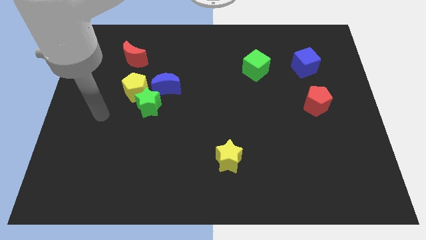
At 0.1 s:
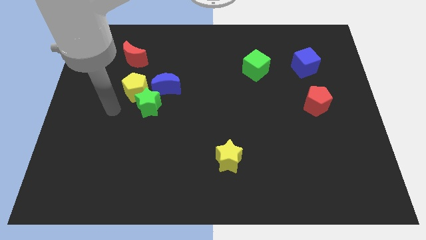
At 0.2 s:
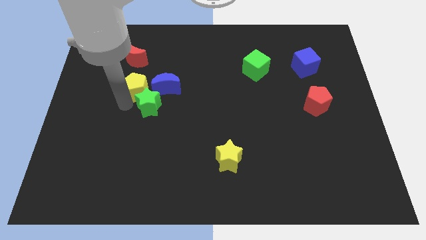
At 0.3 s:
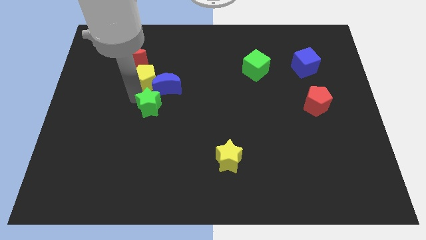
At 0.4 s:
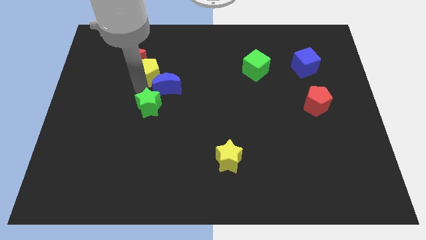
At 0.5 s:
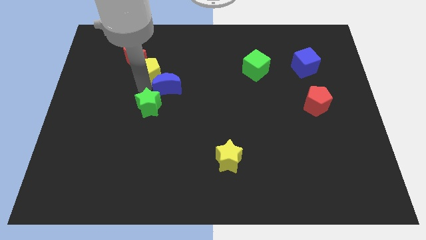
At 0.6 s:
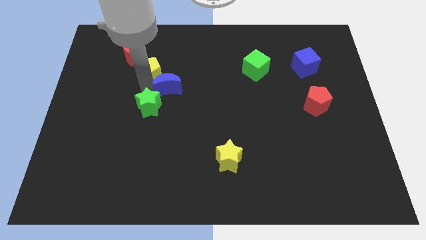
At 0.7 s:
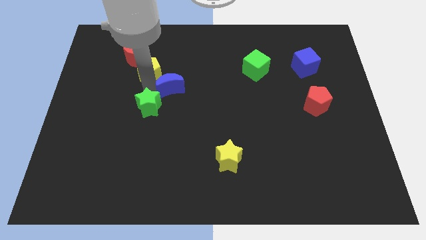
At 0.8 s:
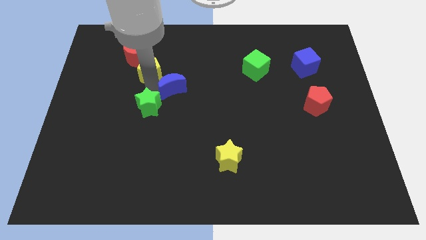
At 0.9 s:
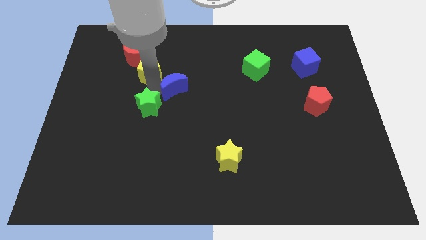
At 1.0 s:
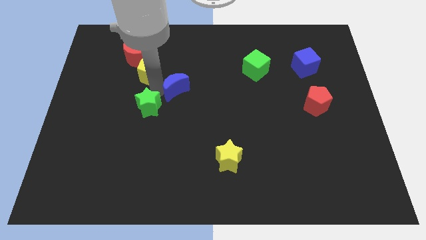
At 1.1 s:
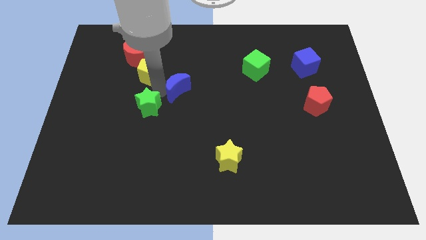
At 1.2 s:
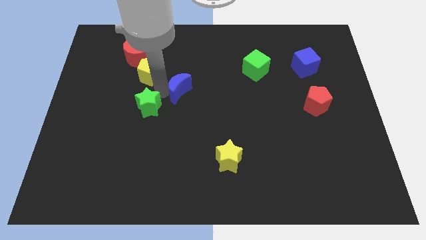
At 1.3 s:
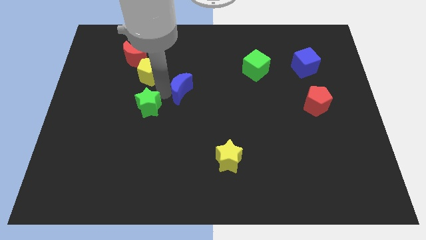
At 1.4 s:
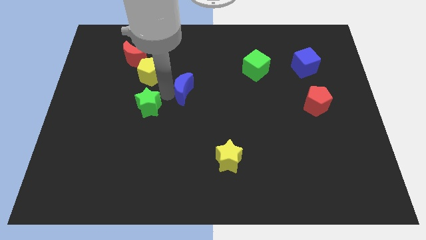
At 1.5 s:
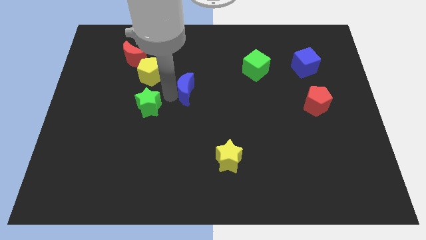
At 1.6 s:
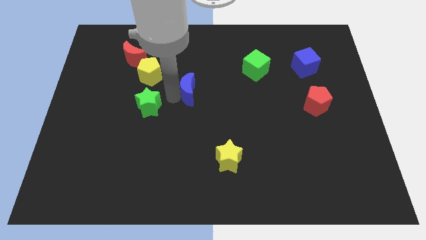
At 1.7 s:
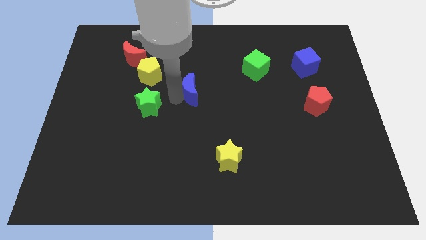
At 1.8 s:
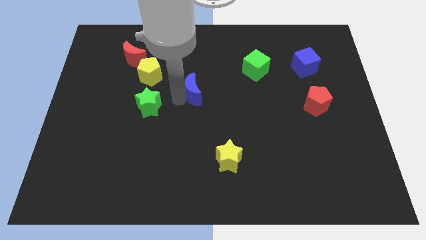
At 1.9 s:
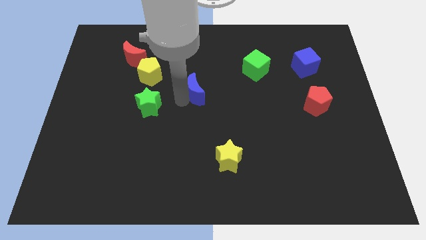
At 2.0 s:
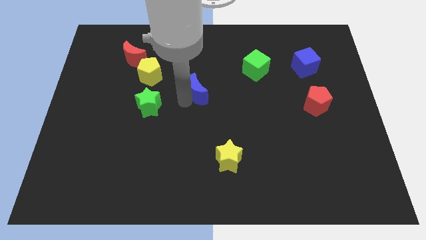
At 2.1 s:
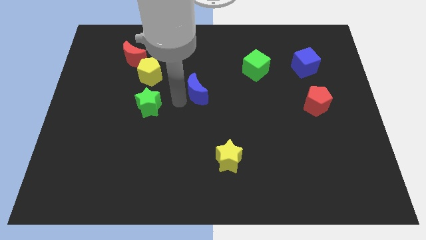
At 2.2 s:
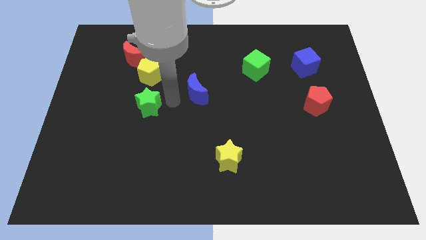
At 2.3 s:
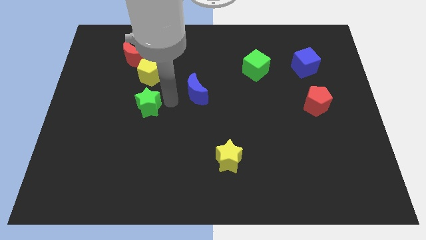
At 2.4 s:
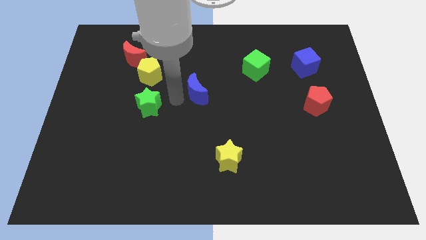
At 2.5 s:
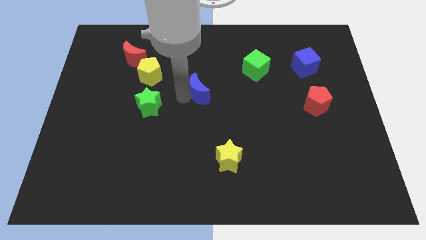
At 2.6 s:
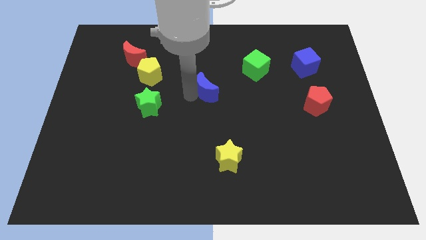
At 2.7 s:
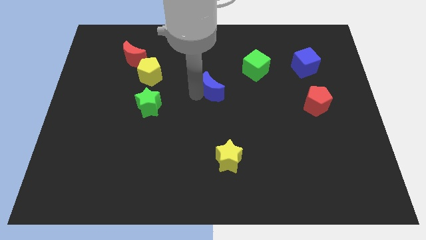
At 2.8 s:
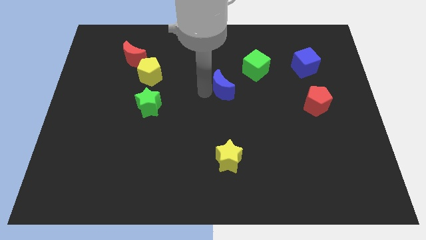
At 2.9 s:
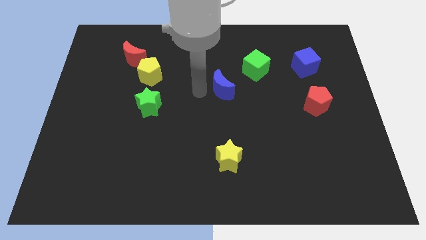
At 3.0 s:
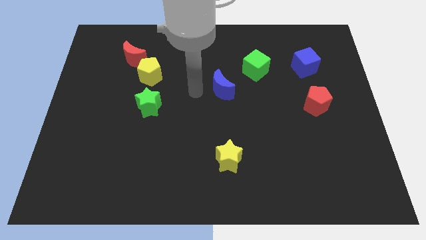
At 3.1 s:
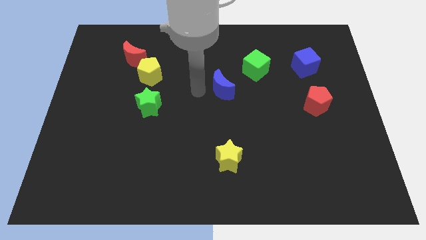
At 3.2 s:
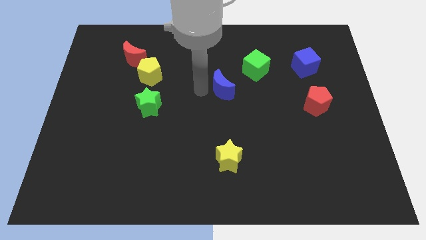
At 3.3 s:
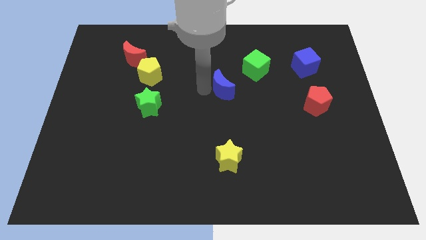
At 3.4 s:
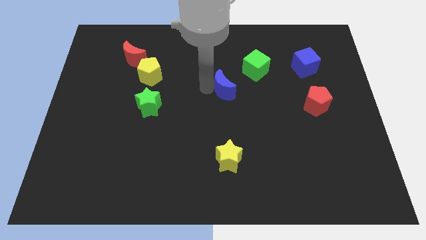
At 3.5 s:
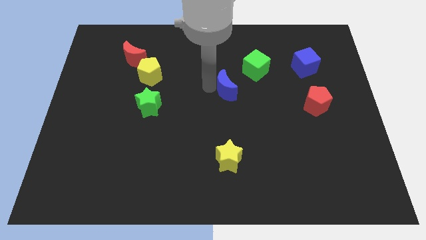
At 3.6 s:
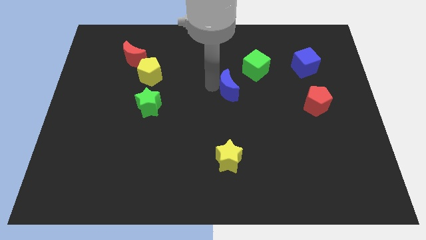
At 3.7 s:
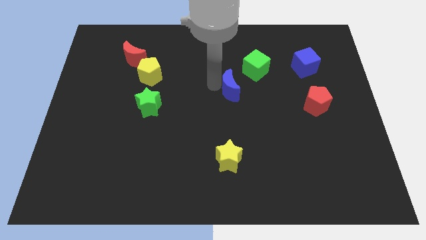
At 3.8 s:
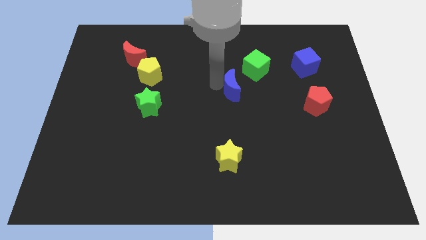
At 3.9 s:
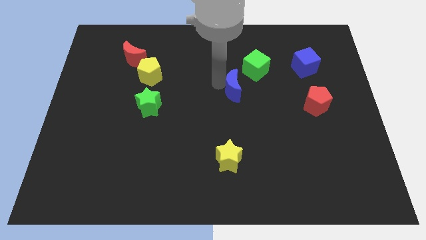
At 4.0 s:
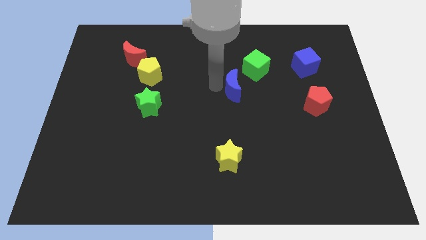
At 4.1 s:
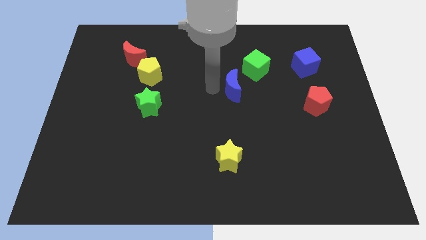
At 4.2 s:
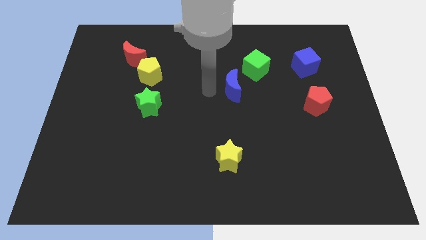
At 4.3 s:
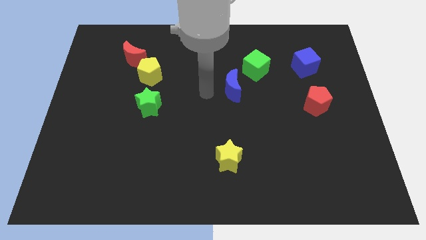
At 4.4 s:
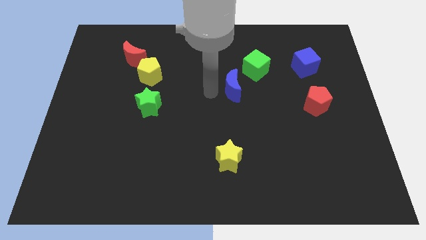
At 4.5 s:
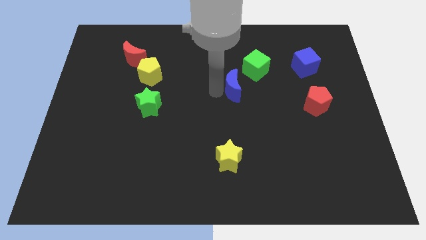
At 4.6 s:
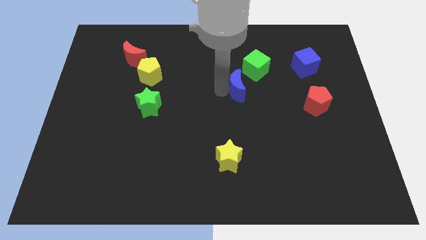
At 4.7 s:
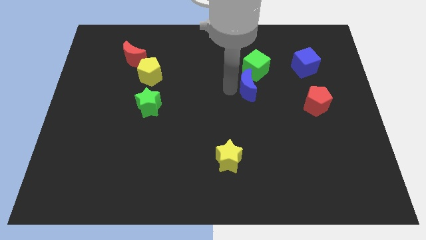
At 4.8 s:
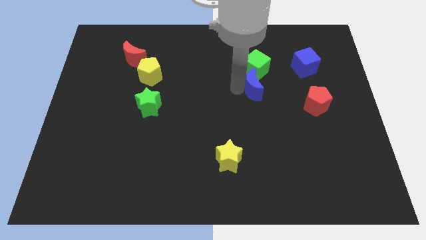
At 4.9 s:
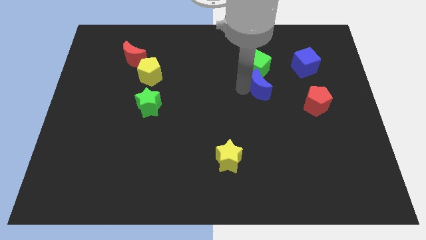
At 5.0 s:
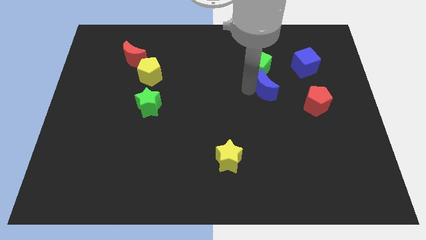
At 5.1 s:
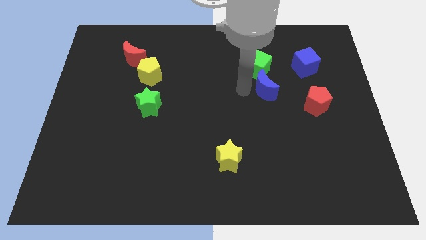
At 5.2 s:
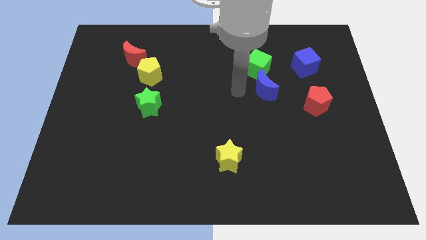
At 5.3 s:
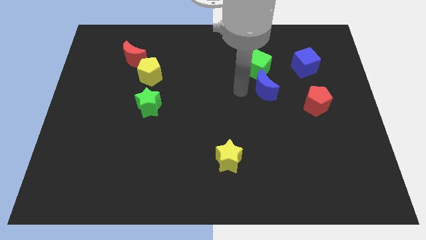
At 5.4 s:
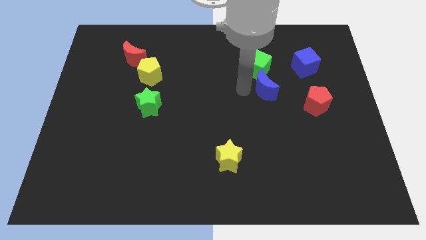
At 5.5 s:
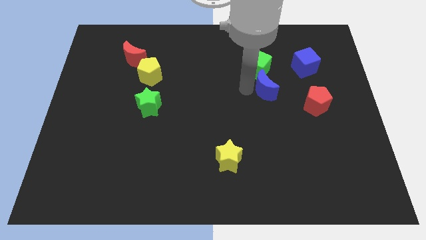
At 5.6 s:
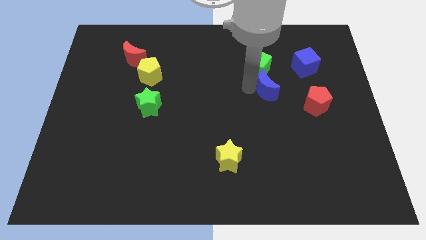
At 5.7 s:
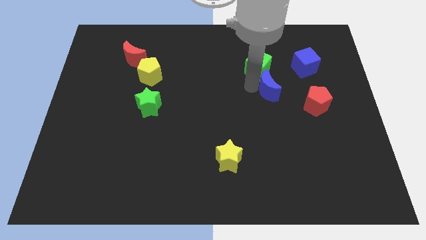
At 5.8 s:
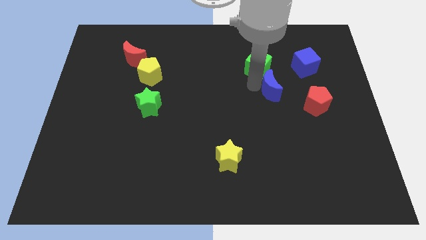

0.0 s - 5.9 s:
push the blue moon to the top left side of the red pentagon

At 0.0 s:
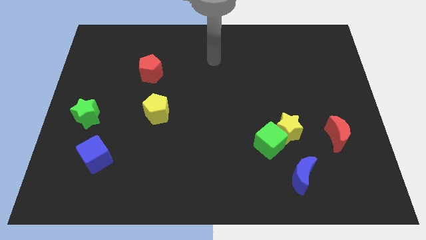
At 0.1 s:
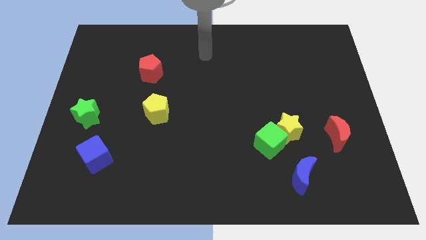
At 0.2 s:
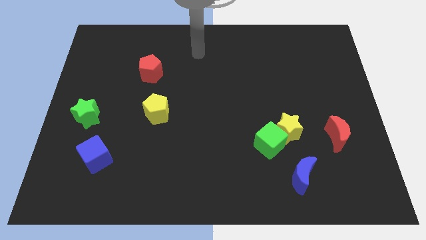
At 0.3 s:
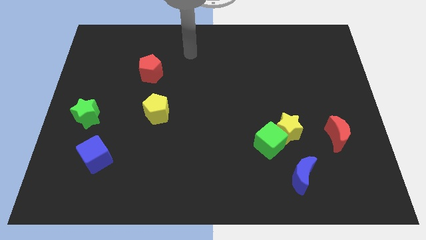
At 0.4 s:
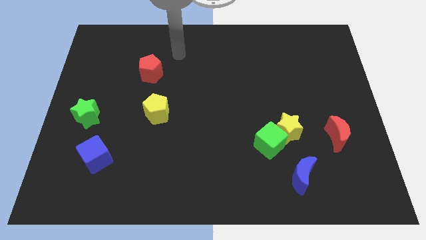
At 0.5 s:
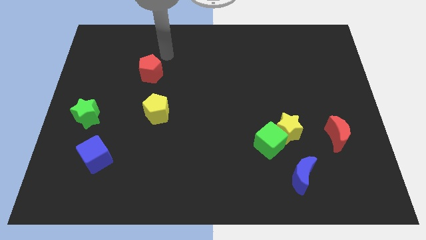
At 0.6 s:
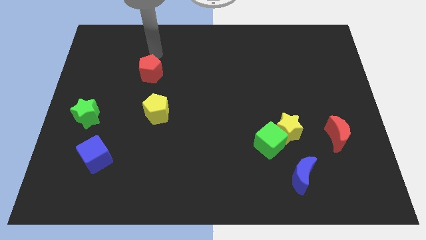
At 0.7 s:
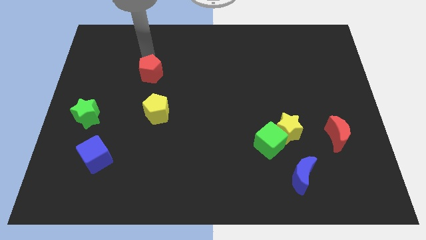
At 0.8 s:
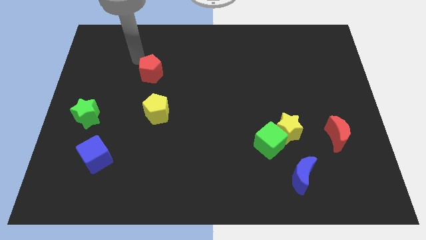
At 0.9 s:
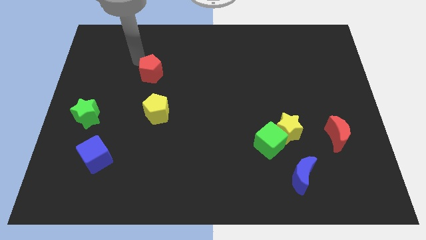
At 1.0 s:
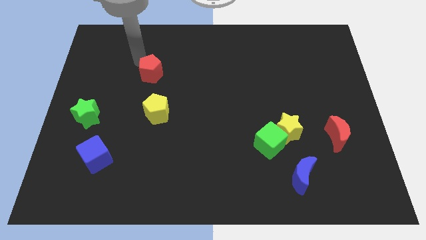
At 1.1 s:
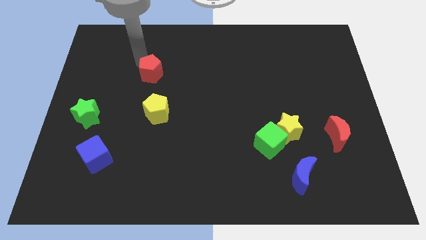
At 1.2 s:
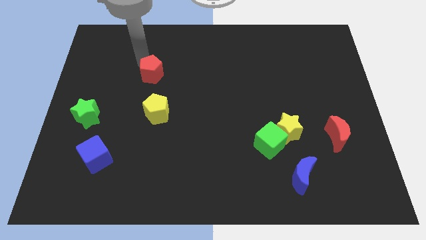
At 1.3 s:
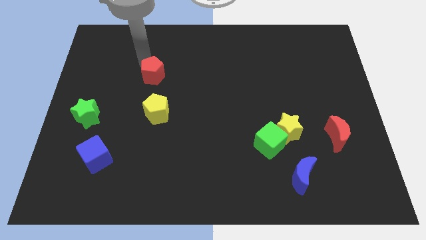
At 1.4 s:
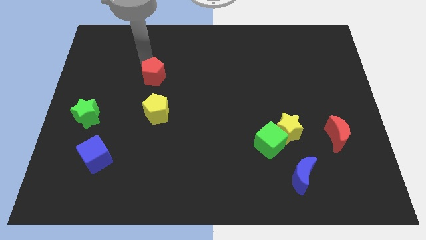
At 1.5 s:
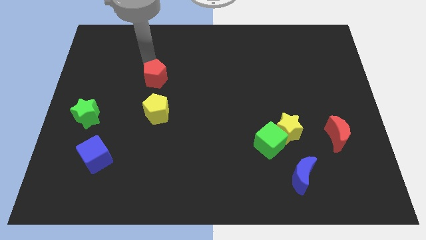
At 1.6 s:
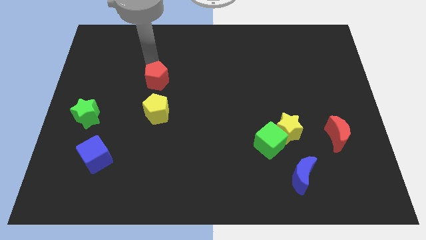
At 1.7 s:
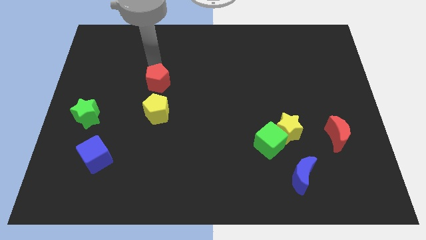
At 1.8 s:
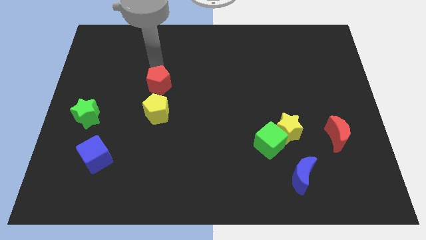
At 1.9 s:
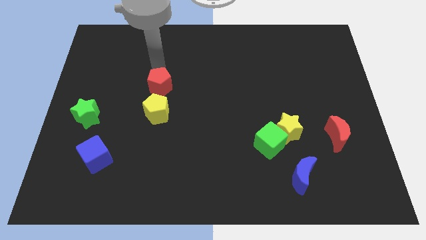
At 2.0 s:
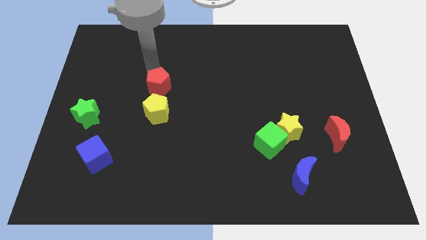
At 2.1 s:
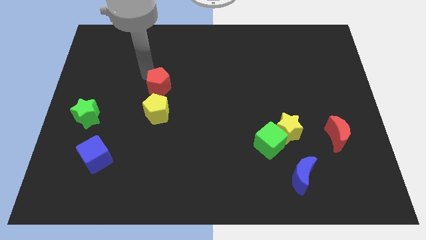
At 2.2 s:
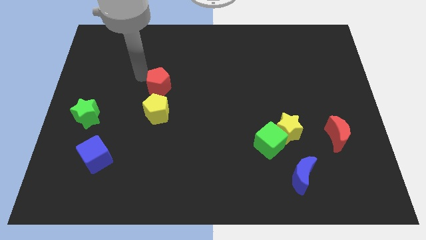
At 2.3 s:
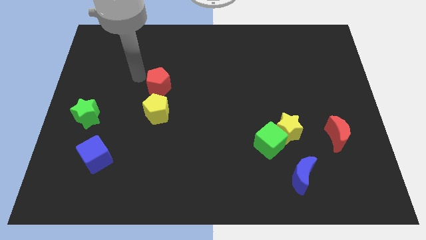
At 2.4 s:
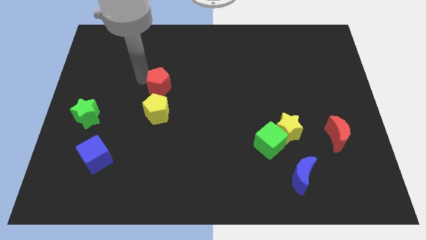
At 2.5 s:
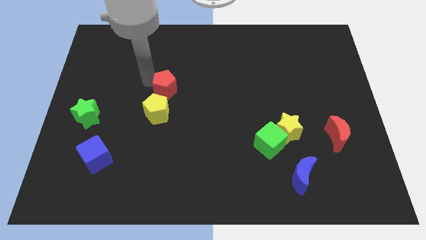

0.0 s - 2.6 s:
put the red pentagon to the top right side of the yellow pentagon
